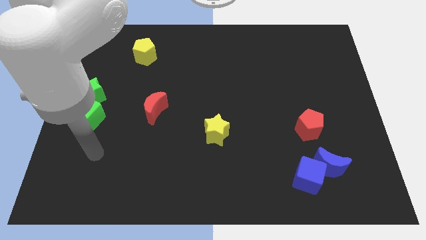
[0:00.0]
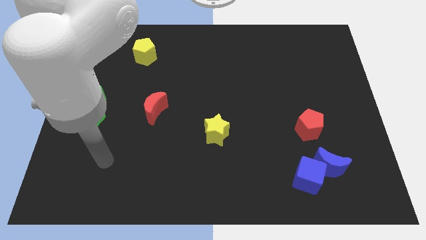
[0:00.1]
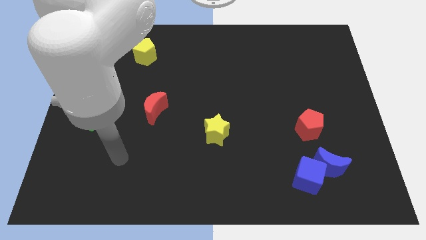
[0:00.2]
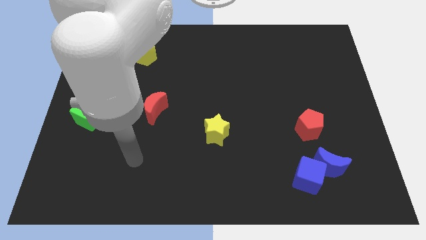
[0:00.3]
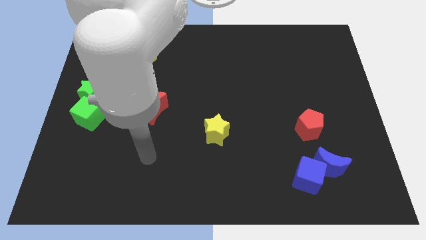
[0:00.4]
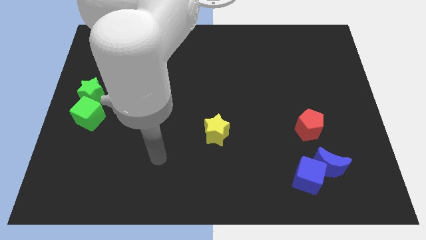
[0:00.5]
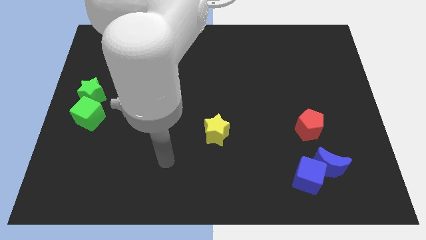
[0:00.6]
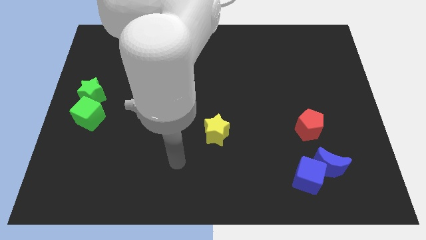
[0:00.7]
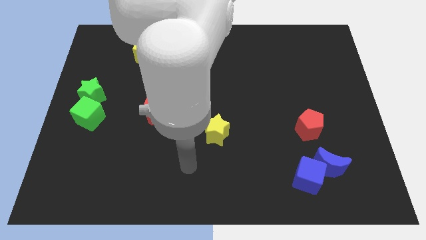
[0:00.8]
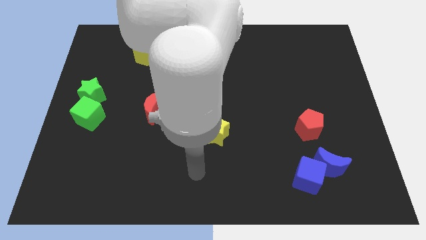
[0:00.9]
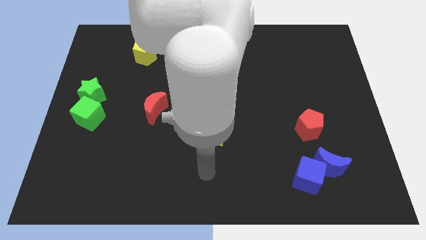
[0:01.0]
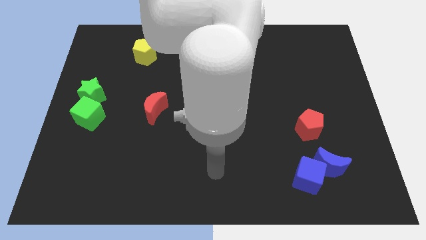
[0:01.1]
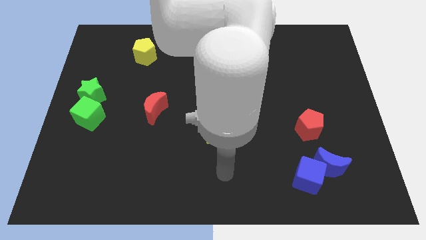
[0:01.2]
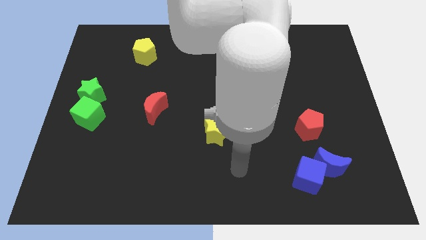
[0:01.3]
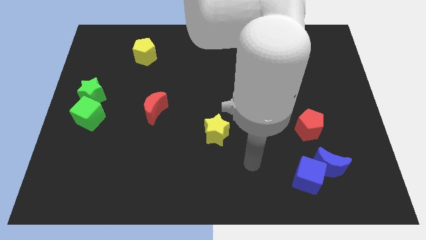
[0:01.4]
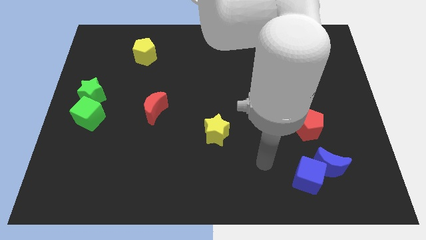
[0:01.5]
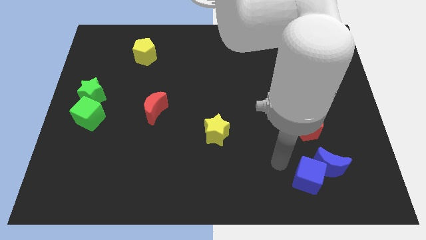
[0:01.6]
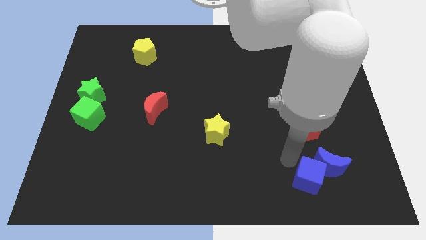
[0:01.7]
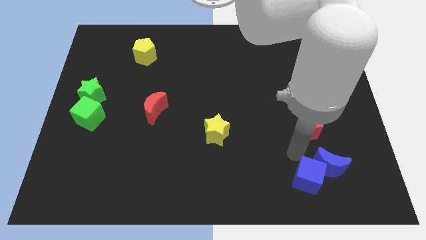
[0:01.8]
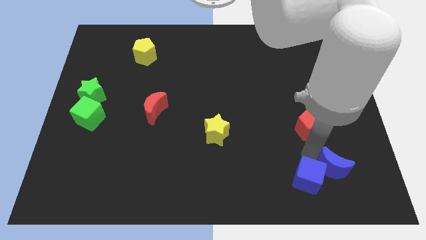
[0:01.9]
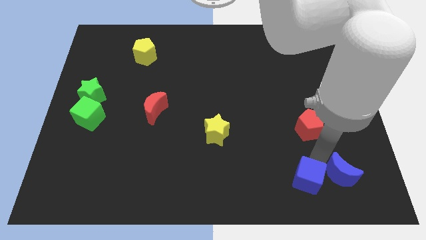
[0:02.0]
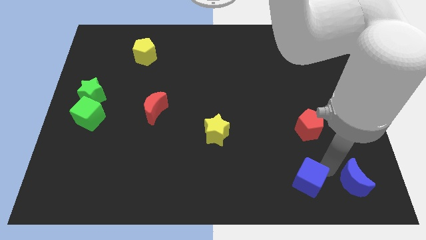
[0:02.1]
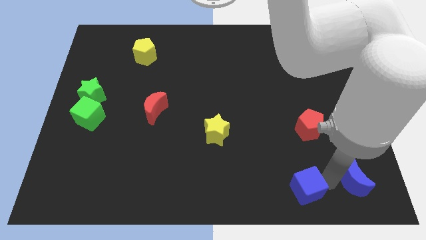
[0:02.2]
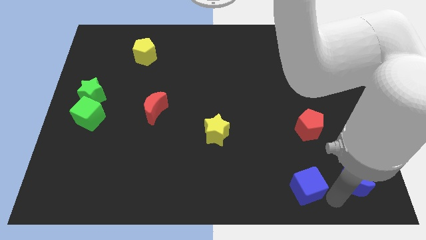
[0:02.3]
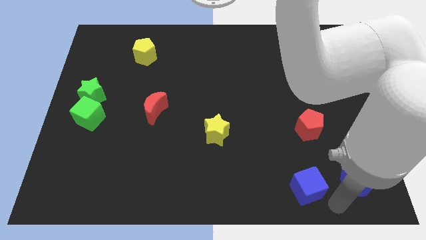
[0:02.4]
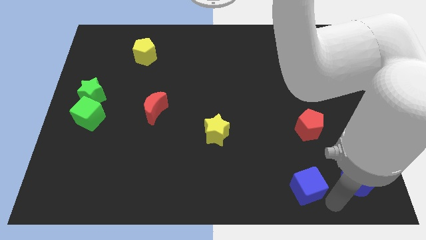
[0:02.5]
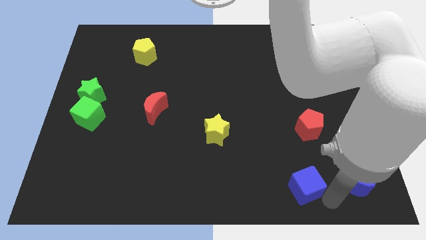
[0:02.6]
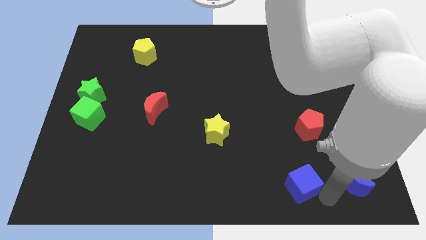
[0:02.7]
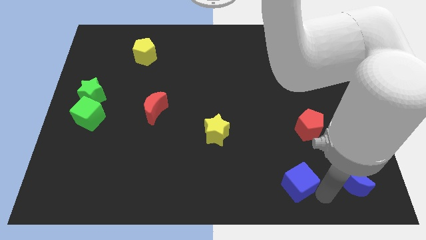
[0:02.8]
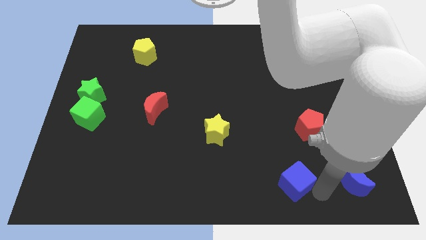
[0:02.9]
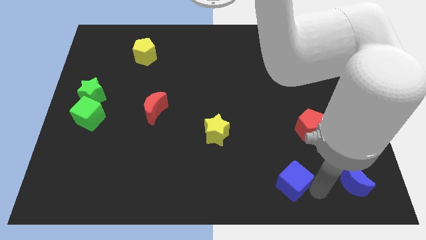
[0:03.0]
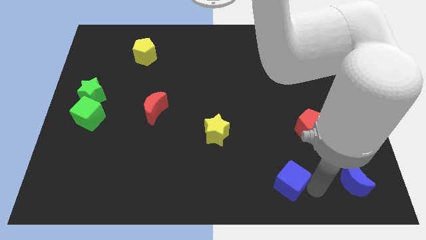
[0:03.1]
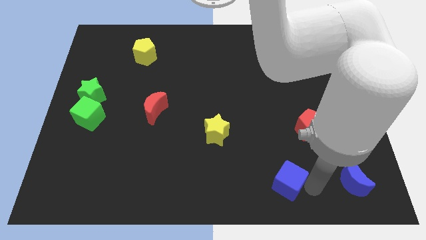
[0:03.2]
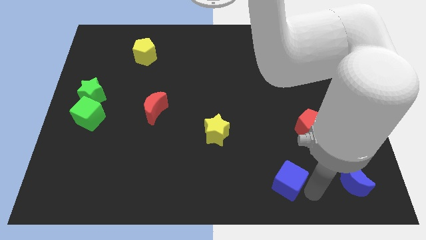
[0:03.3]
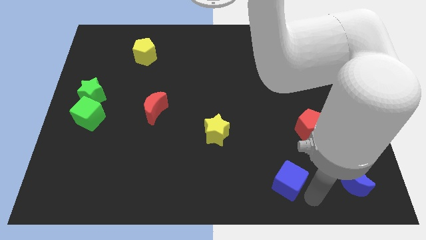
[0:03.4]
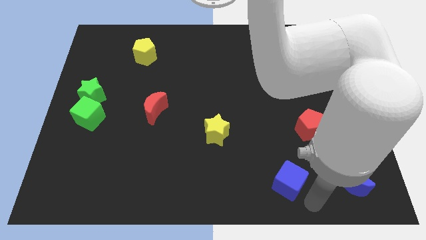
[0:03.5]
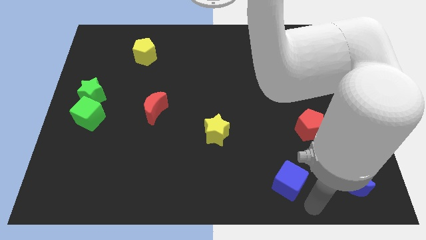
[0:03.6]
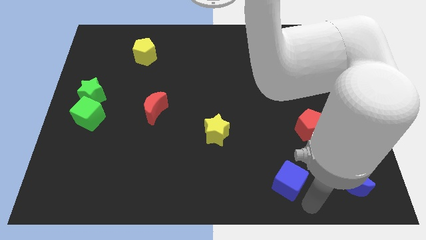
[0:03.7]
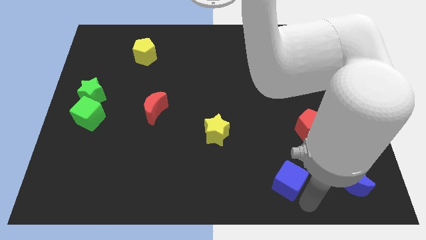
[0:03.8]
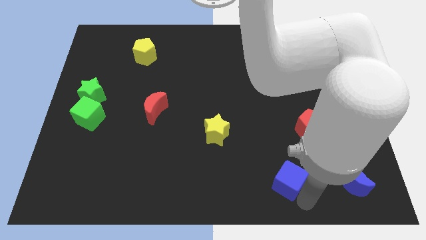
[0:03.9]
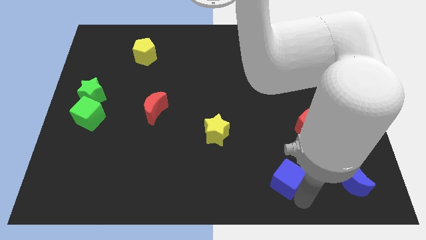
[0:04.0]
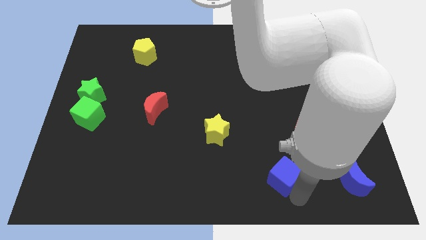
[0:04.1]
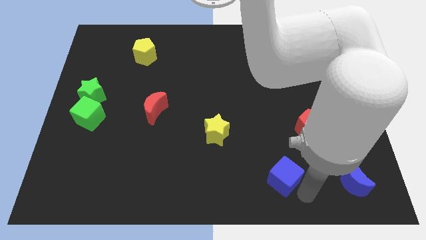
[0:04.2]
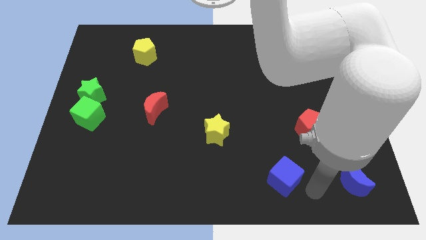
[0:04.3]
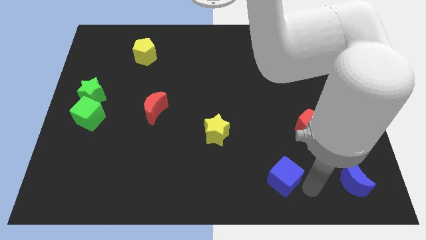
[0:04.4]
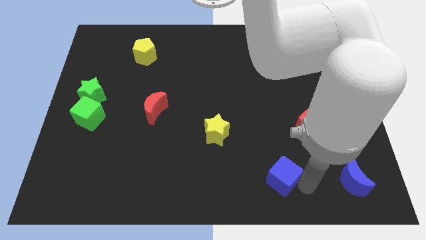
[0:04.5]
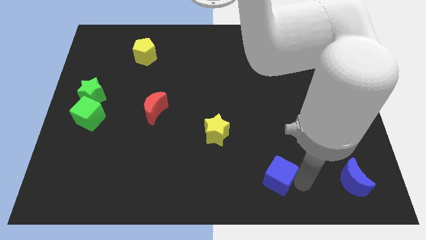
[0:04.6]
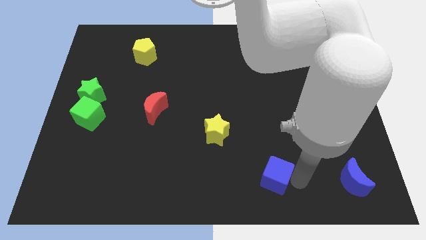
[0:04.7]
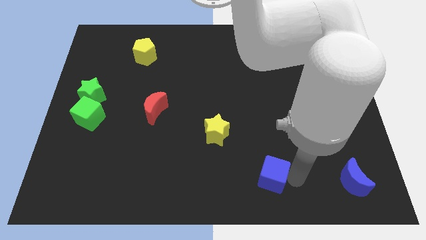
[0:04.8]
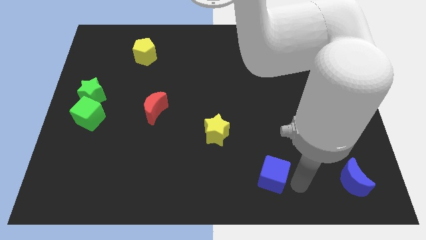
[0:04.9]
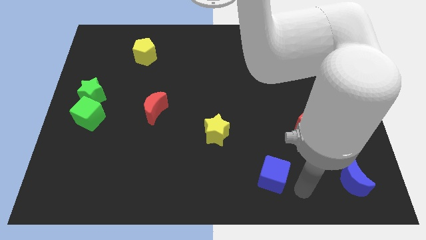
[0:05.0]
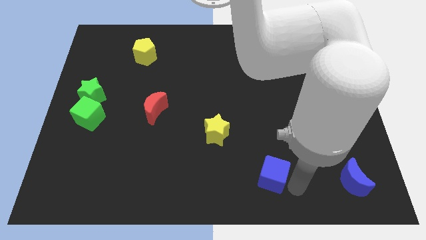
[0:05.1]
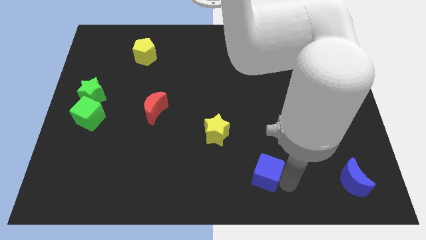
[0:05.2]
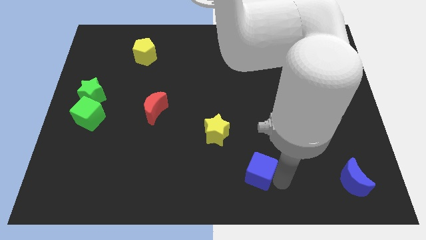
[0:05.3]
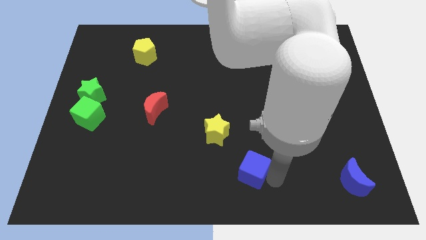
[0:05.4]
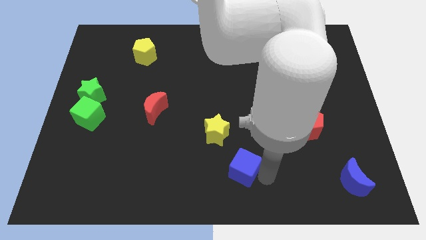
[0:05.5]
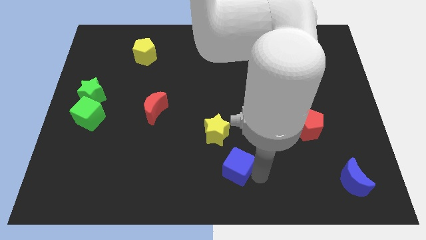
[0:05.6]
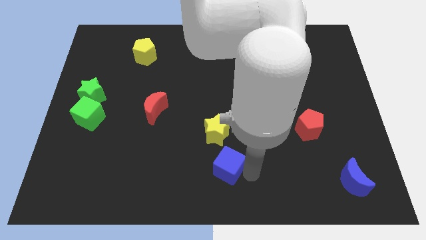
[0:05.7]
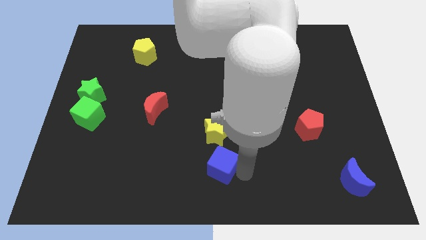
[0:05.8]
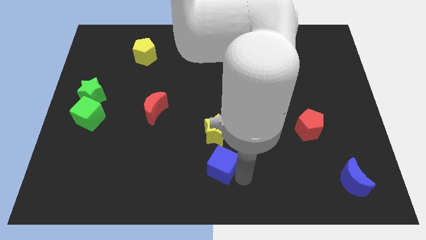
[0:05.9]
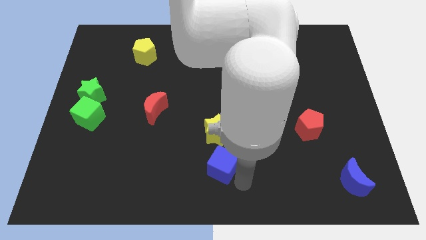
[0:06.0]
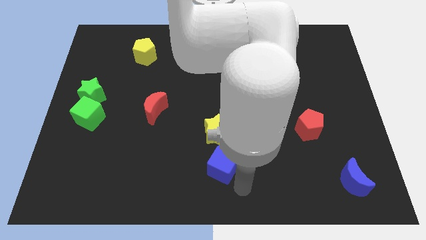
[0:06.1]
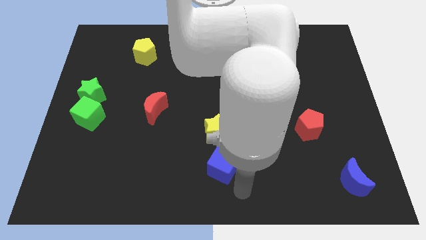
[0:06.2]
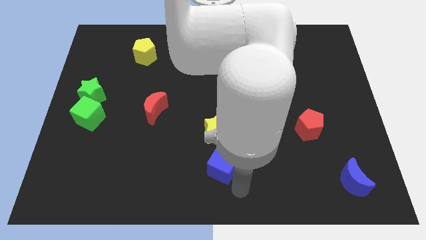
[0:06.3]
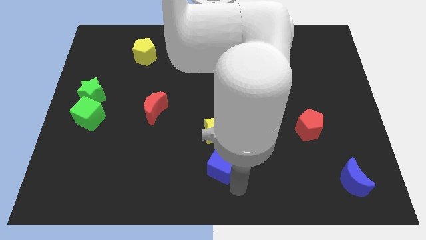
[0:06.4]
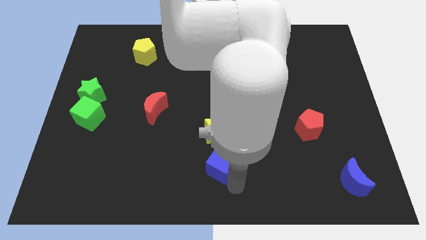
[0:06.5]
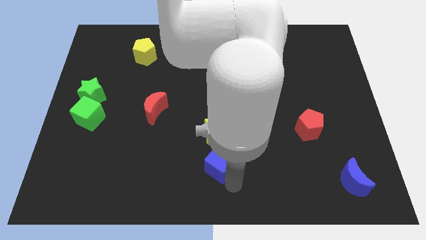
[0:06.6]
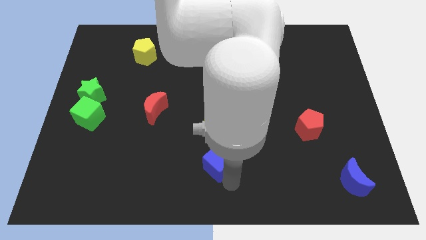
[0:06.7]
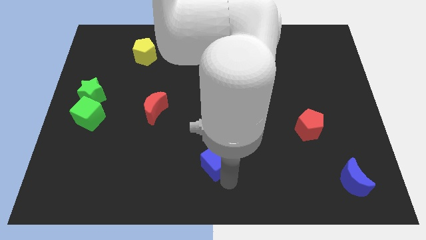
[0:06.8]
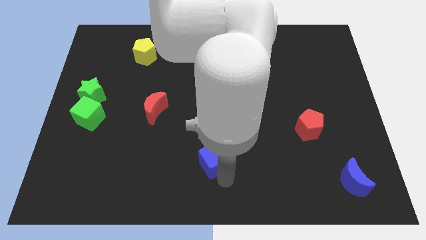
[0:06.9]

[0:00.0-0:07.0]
slide the blue cube to the bottom left of the yellow star
